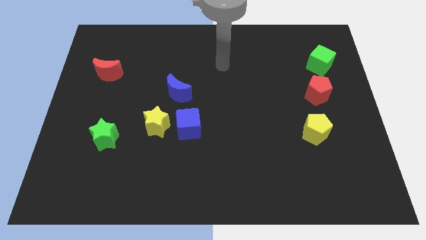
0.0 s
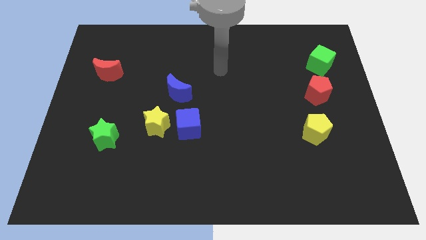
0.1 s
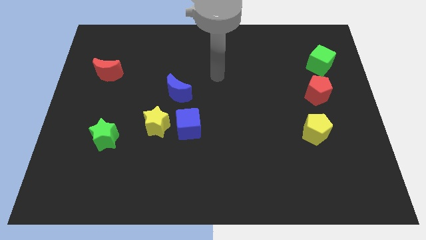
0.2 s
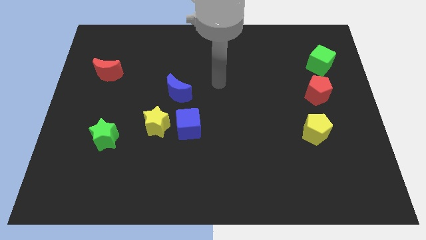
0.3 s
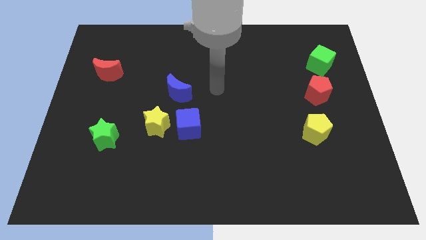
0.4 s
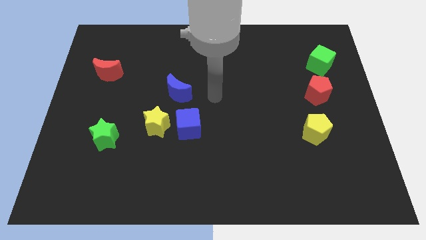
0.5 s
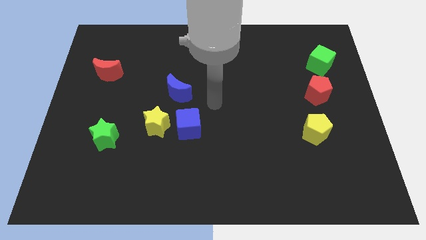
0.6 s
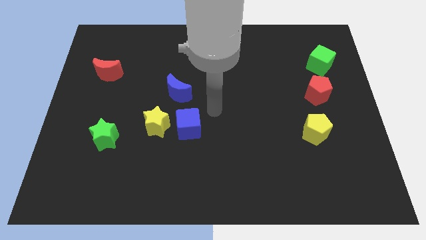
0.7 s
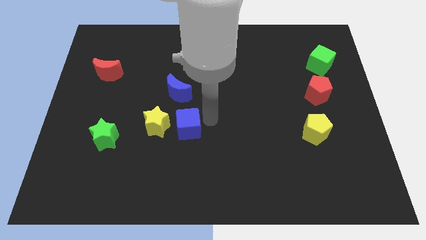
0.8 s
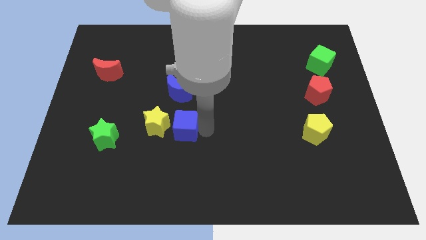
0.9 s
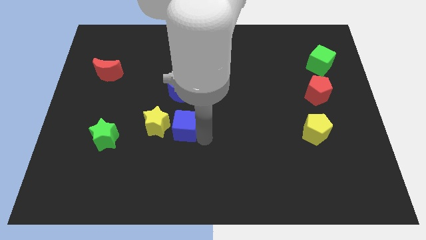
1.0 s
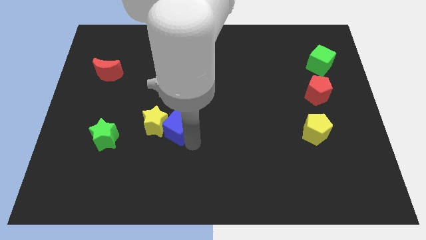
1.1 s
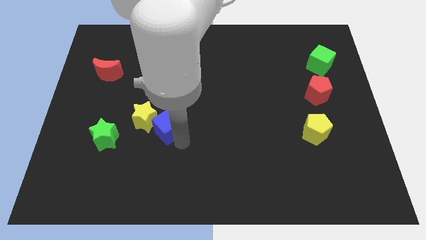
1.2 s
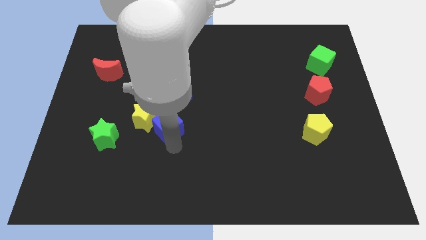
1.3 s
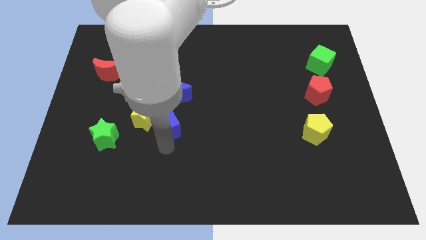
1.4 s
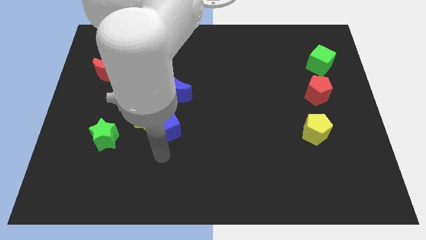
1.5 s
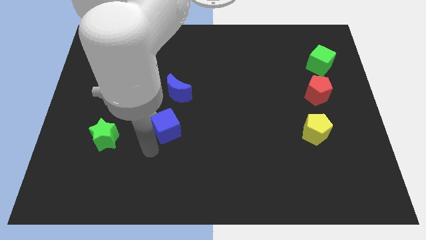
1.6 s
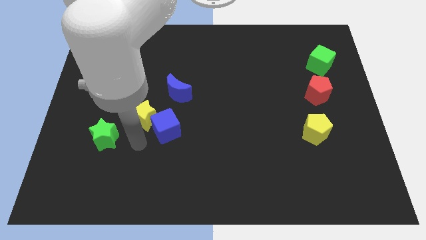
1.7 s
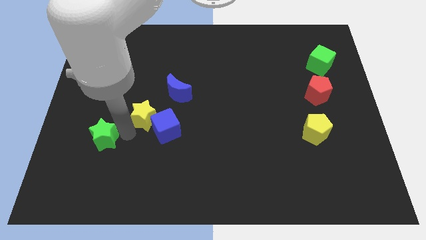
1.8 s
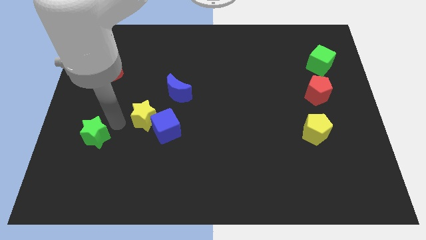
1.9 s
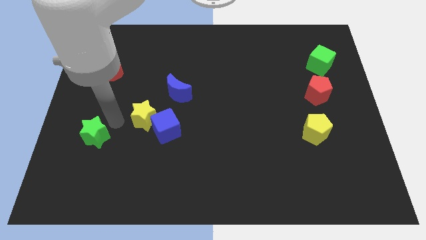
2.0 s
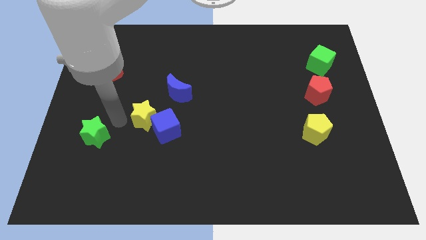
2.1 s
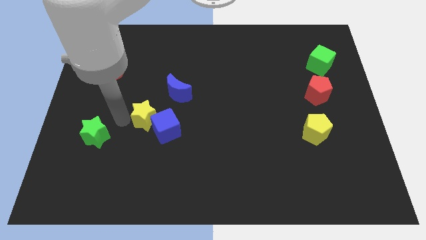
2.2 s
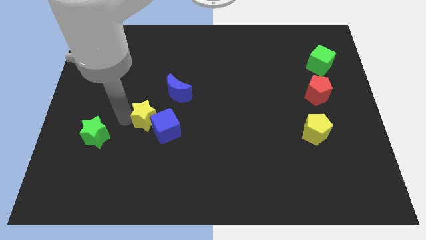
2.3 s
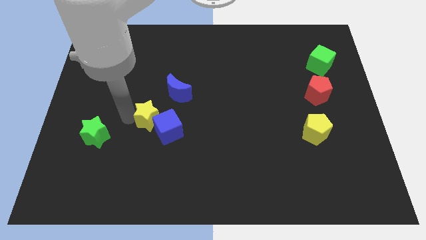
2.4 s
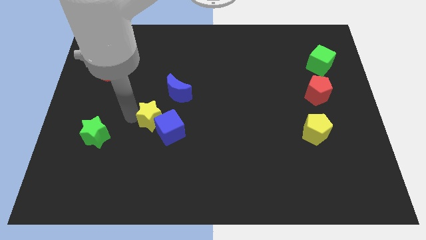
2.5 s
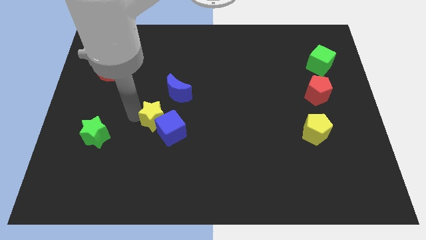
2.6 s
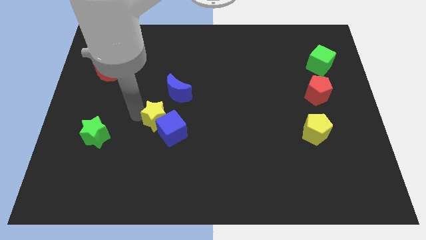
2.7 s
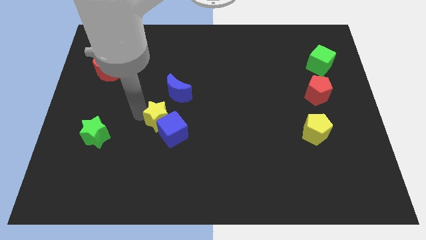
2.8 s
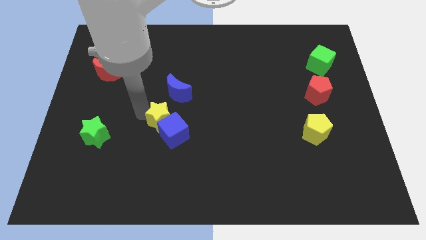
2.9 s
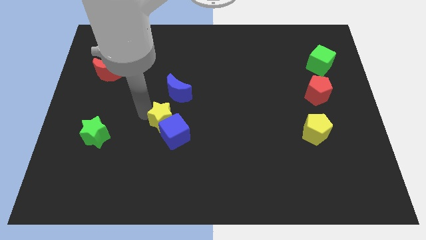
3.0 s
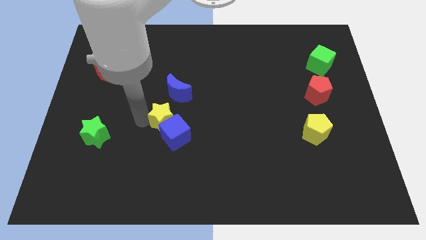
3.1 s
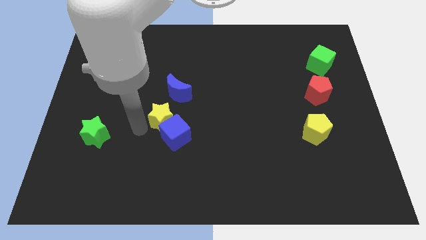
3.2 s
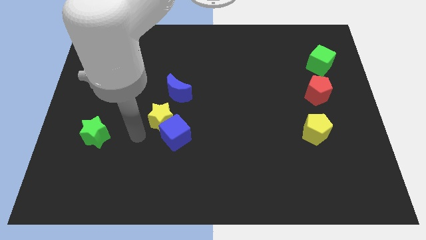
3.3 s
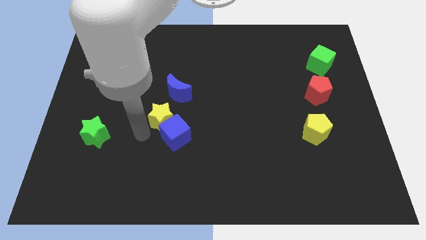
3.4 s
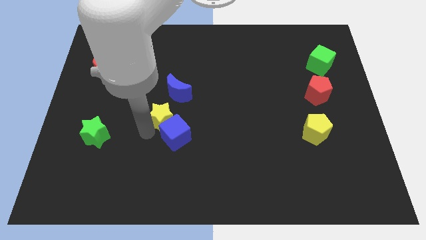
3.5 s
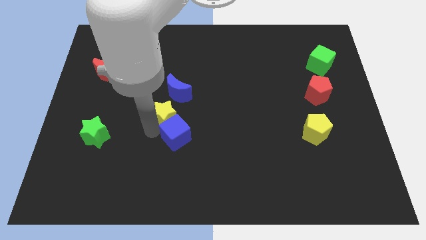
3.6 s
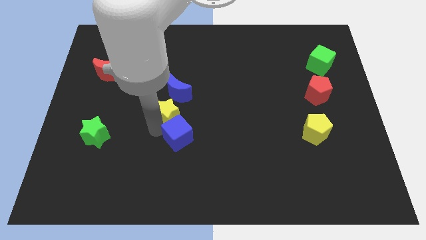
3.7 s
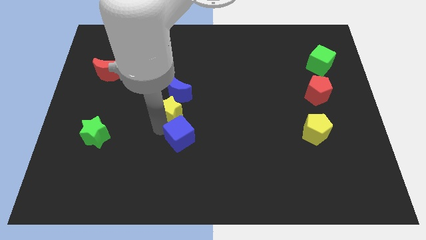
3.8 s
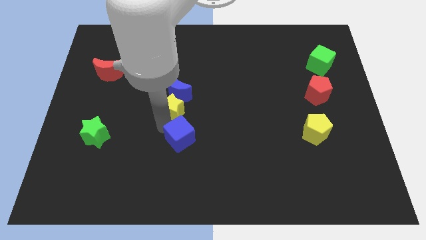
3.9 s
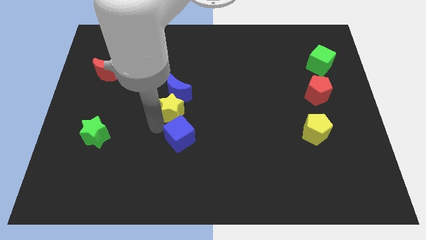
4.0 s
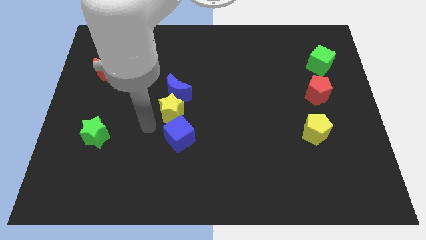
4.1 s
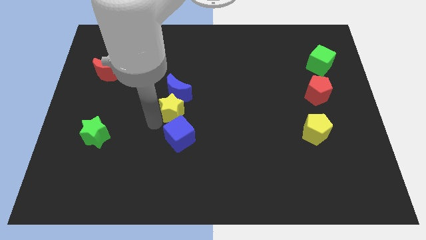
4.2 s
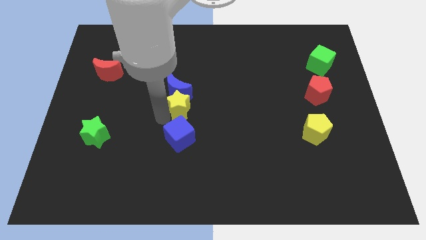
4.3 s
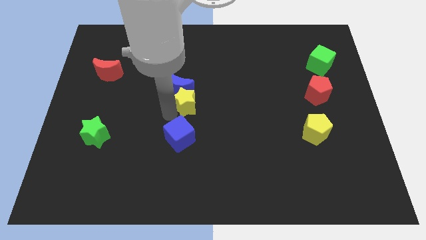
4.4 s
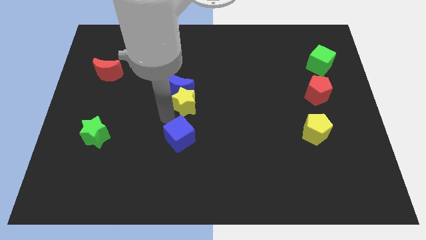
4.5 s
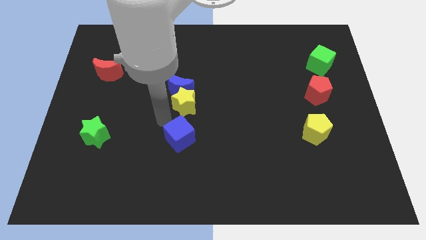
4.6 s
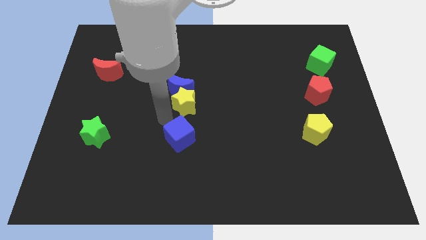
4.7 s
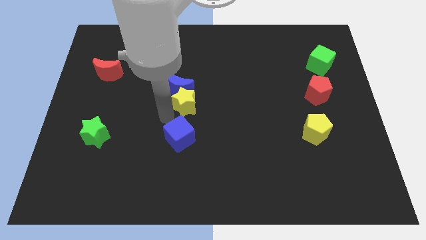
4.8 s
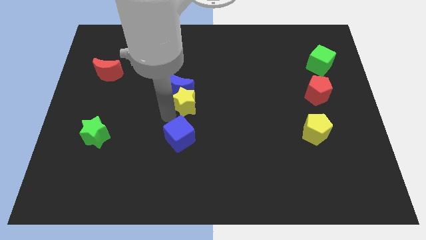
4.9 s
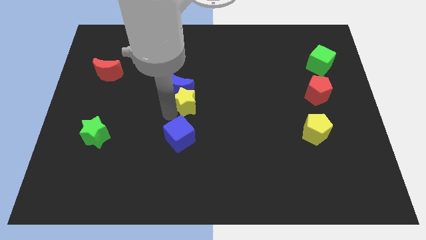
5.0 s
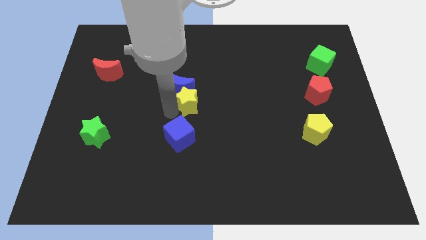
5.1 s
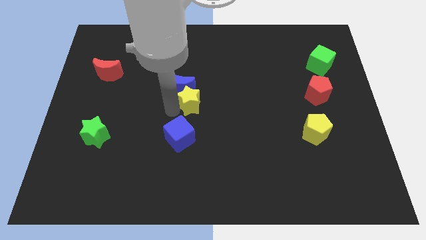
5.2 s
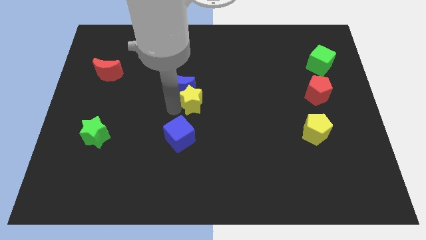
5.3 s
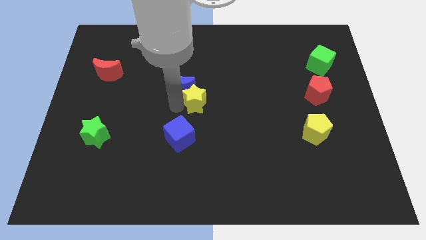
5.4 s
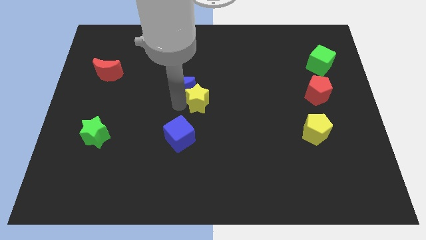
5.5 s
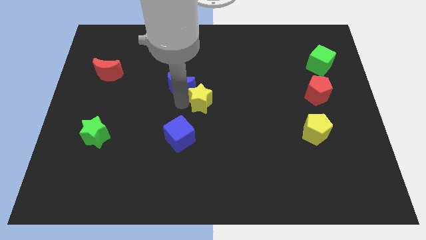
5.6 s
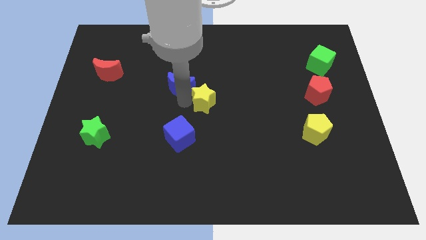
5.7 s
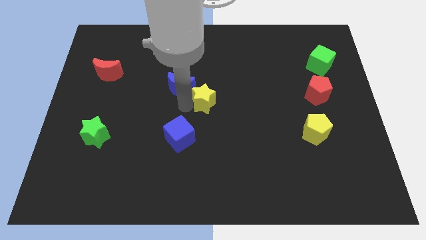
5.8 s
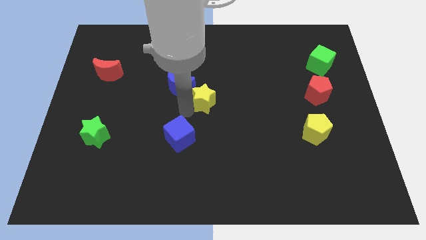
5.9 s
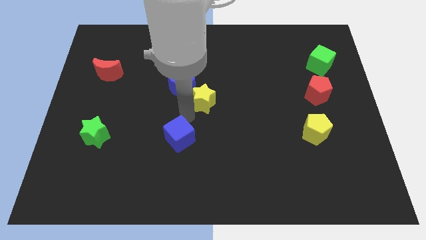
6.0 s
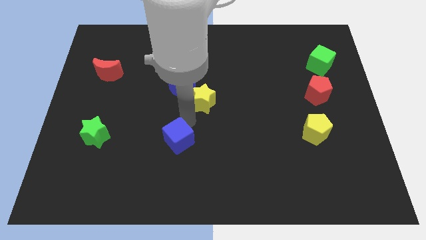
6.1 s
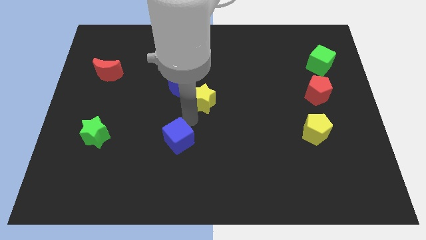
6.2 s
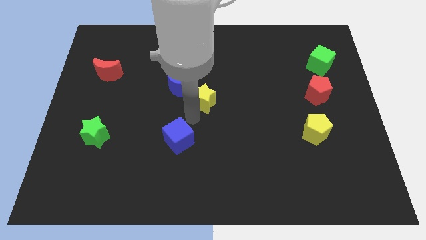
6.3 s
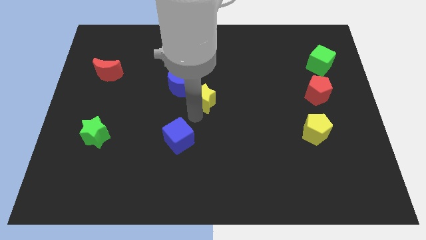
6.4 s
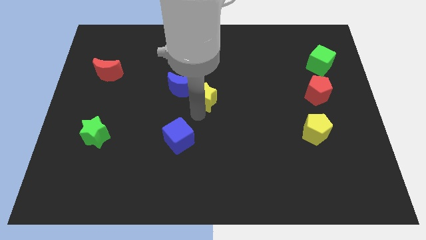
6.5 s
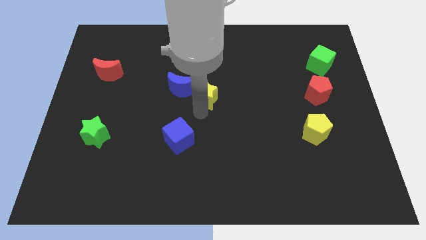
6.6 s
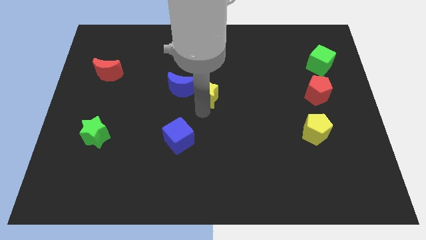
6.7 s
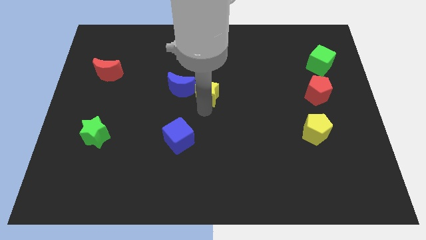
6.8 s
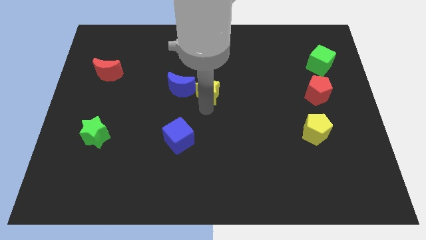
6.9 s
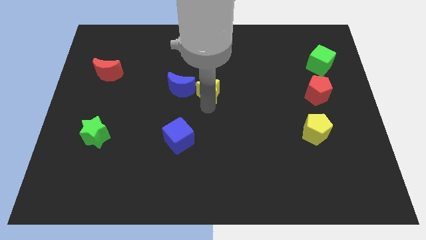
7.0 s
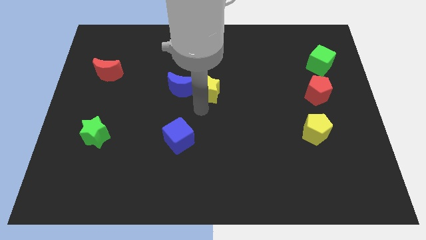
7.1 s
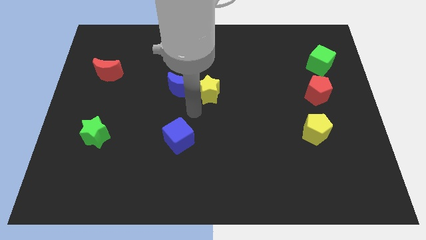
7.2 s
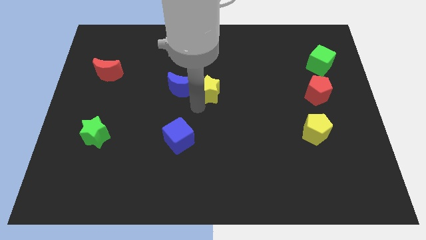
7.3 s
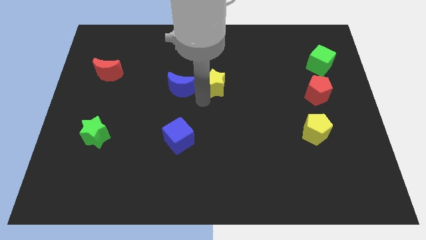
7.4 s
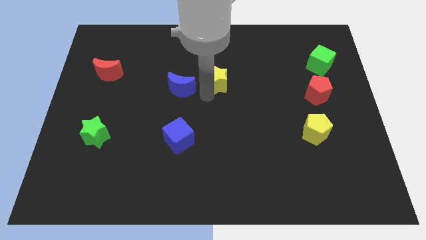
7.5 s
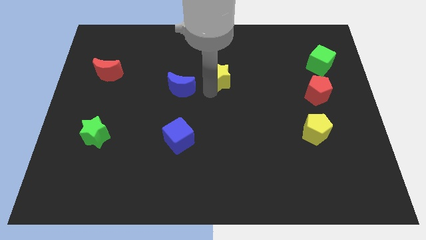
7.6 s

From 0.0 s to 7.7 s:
push the yellow star diagonally up and right

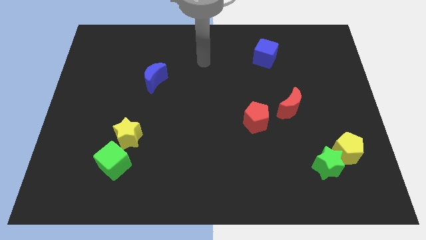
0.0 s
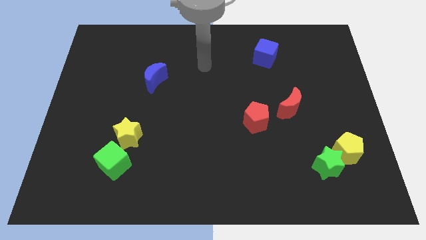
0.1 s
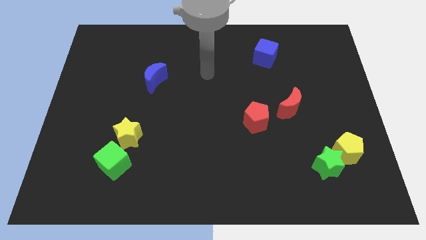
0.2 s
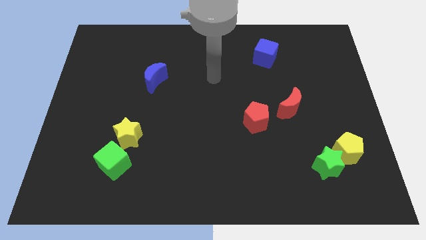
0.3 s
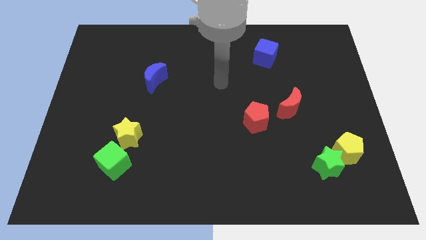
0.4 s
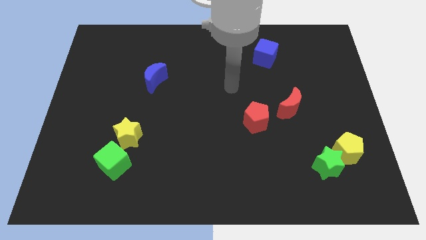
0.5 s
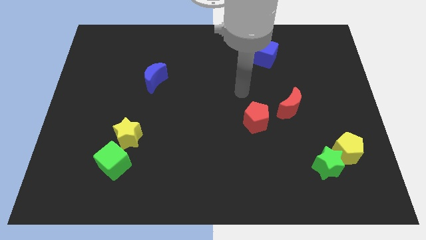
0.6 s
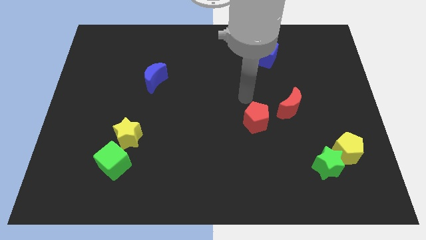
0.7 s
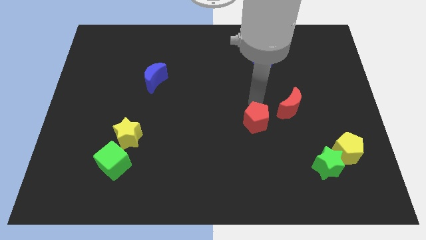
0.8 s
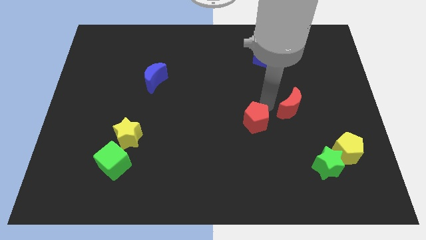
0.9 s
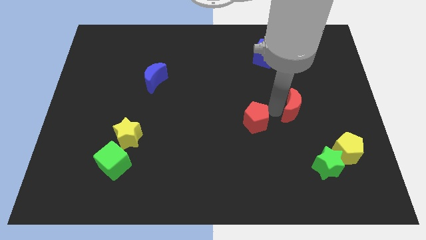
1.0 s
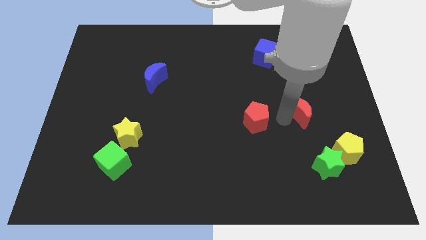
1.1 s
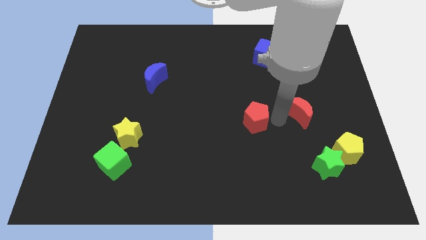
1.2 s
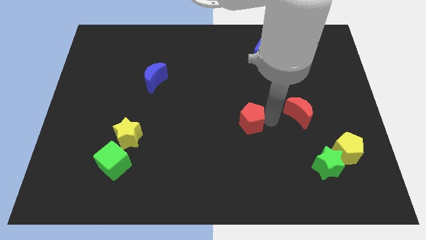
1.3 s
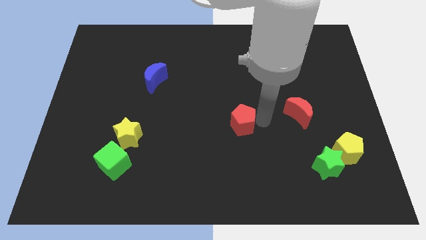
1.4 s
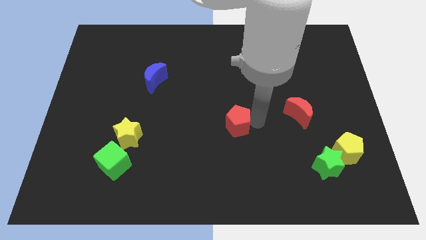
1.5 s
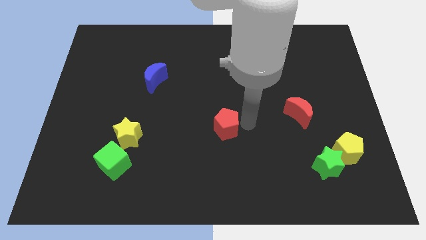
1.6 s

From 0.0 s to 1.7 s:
move the red pentagon a bit to the left
